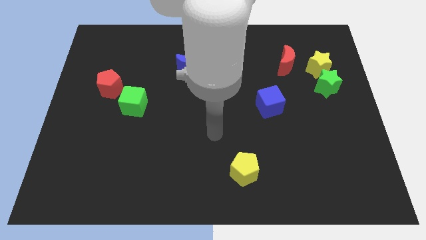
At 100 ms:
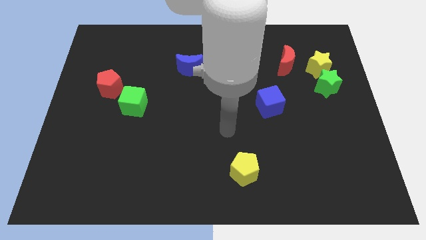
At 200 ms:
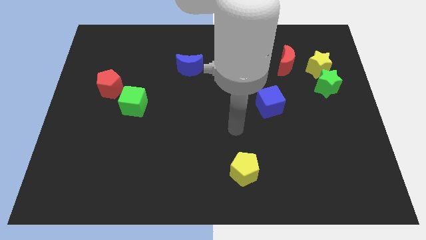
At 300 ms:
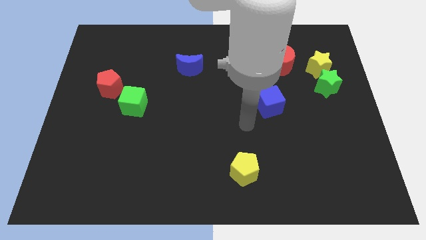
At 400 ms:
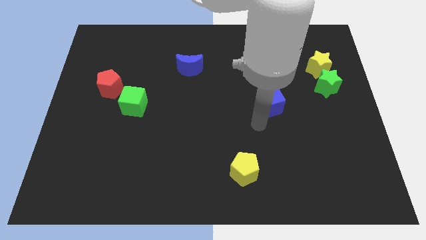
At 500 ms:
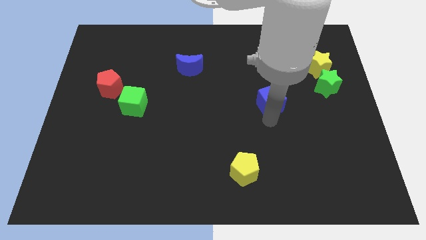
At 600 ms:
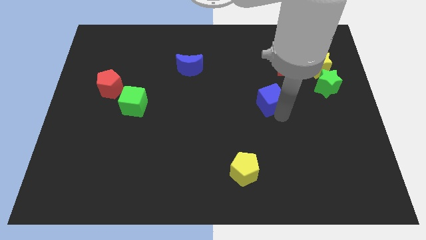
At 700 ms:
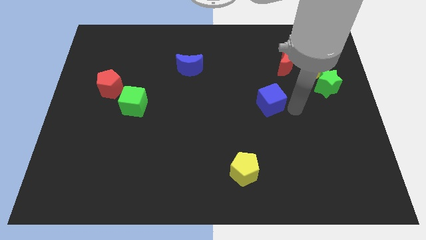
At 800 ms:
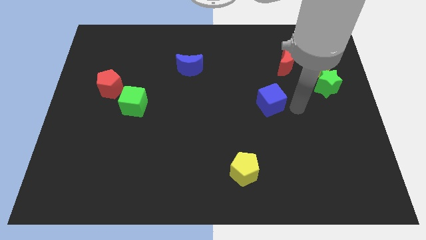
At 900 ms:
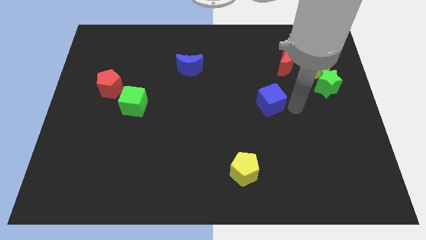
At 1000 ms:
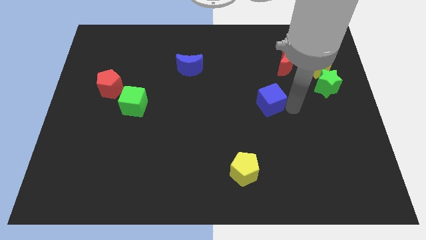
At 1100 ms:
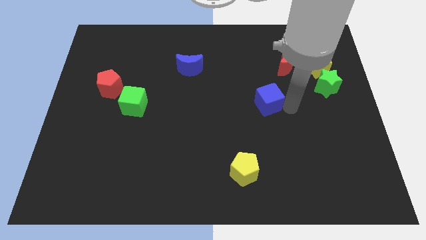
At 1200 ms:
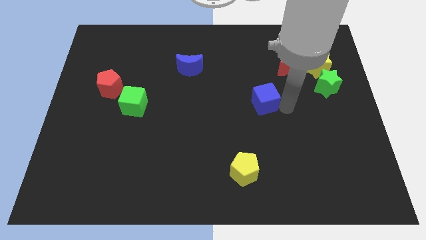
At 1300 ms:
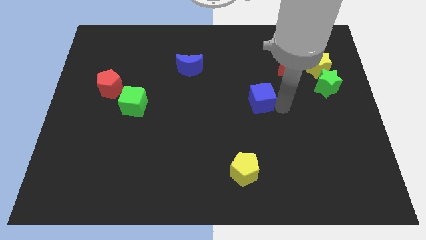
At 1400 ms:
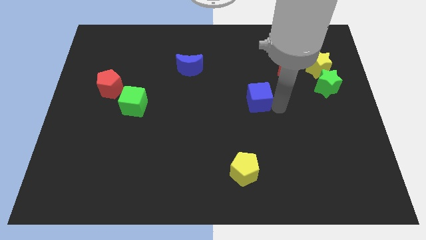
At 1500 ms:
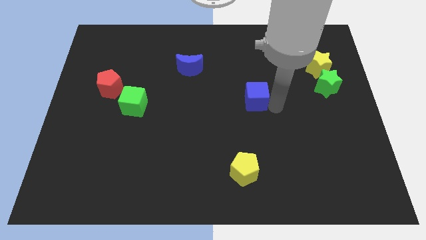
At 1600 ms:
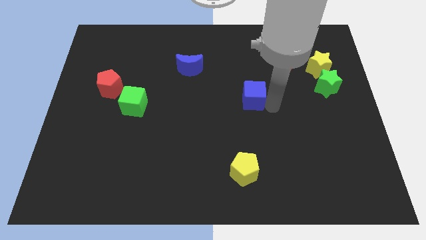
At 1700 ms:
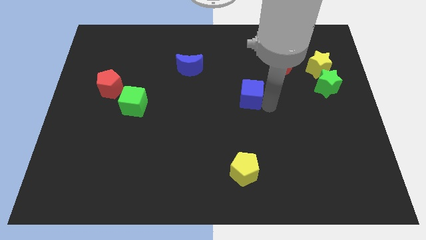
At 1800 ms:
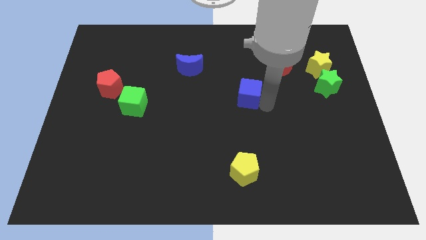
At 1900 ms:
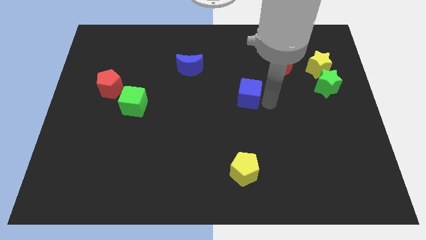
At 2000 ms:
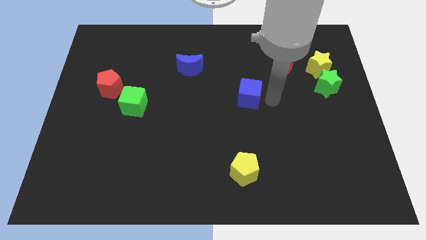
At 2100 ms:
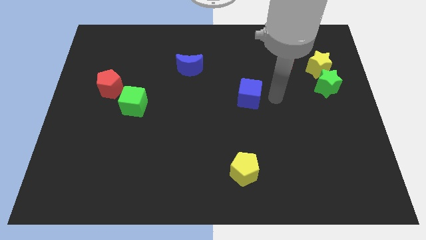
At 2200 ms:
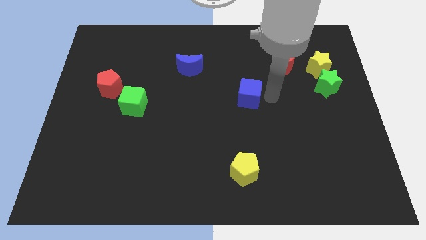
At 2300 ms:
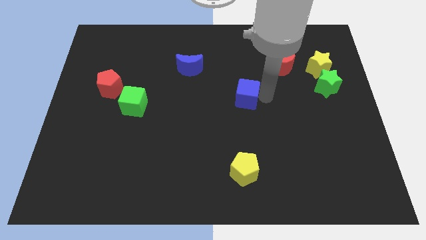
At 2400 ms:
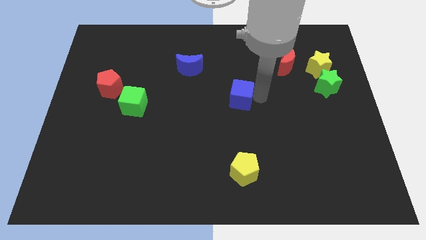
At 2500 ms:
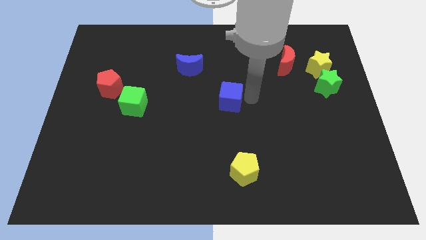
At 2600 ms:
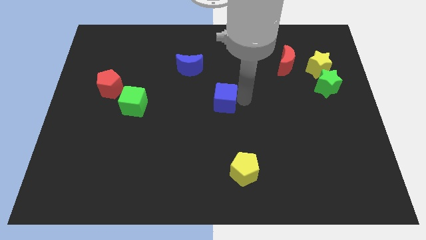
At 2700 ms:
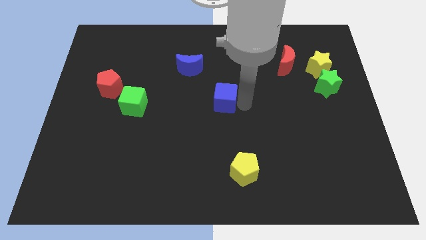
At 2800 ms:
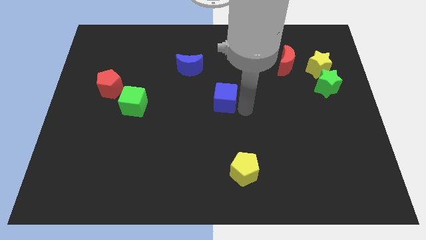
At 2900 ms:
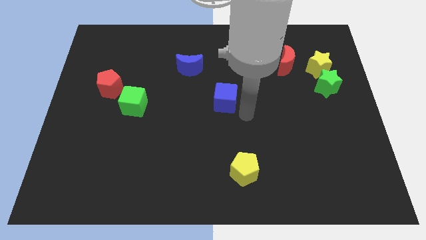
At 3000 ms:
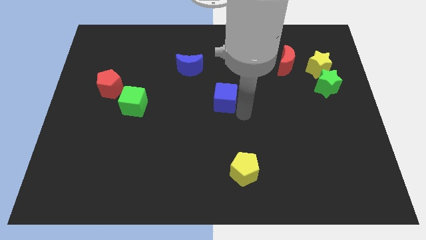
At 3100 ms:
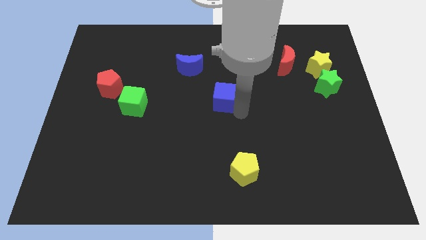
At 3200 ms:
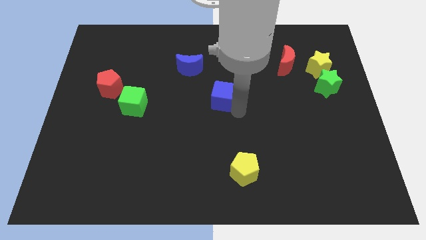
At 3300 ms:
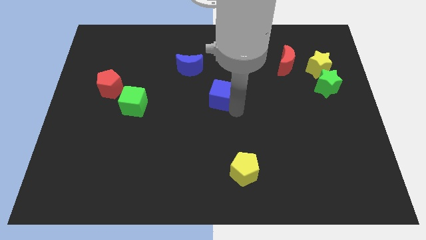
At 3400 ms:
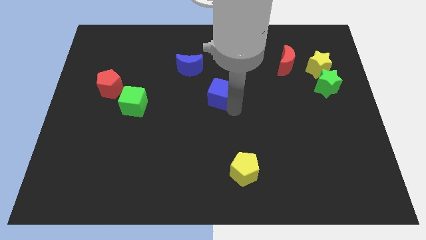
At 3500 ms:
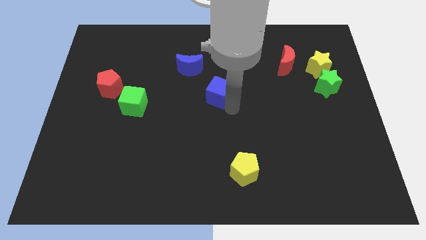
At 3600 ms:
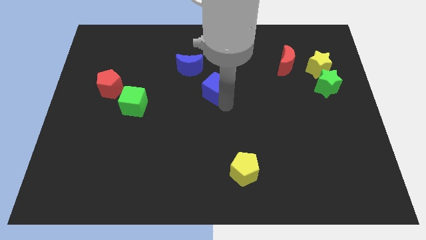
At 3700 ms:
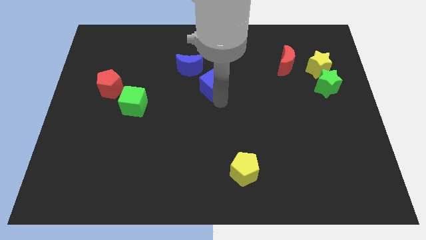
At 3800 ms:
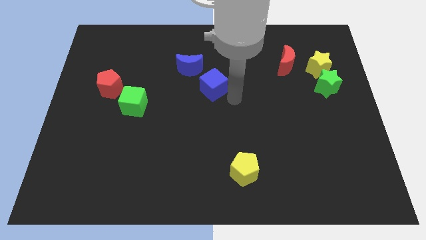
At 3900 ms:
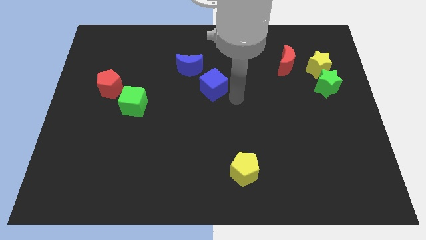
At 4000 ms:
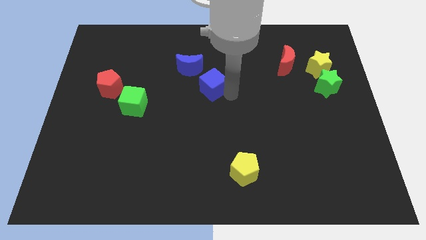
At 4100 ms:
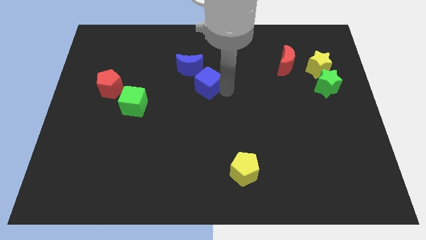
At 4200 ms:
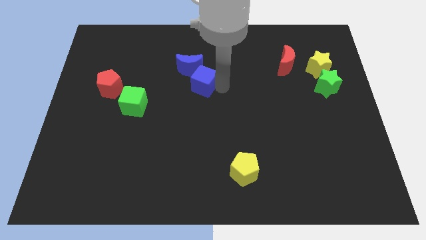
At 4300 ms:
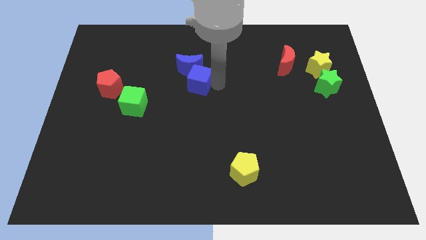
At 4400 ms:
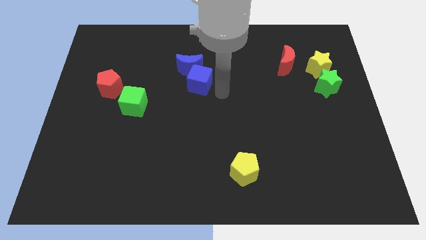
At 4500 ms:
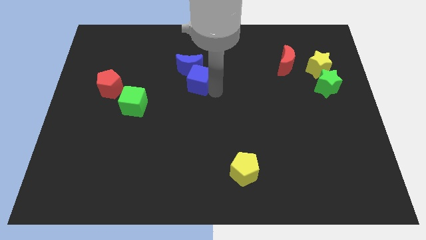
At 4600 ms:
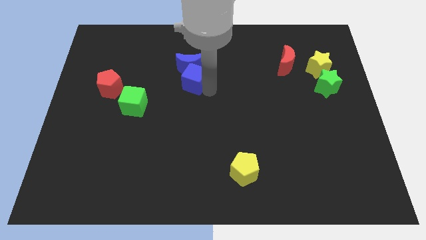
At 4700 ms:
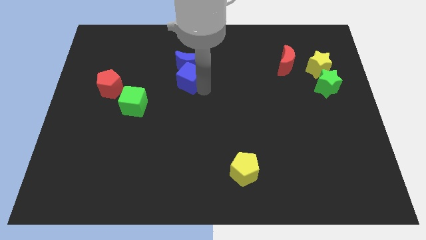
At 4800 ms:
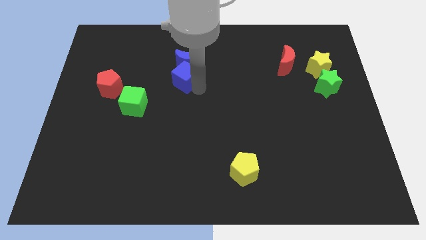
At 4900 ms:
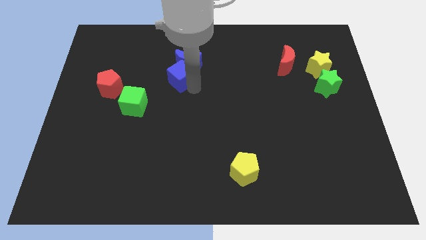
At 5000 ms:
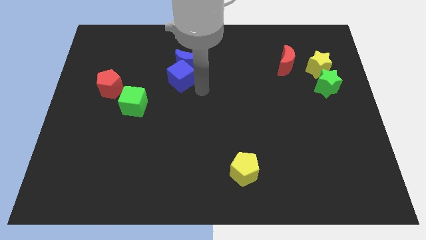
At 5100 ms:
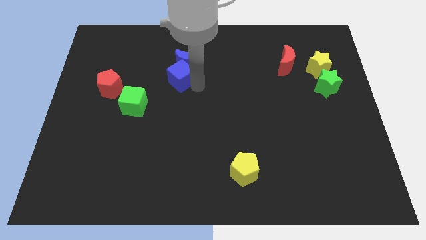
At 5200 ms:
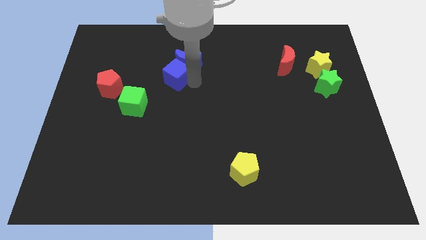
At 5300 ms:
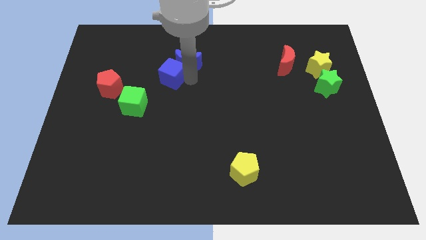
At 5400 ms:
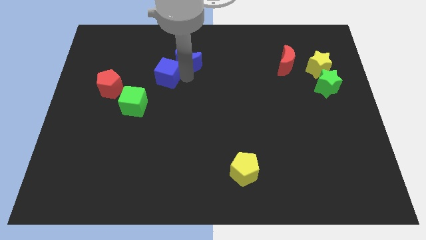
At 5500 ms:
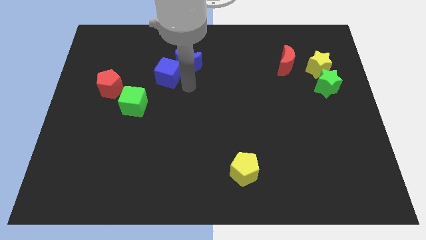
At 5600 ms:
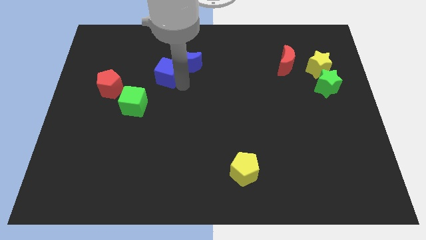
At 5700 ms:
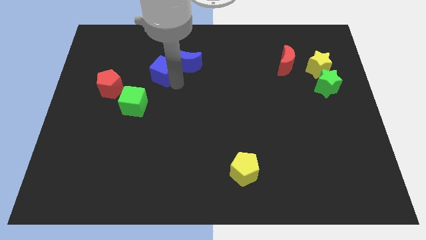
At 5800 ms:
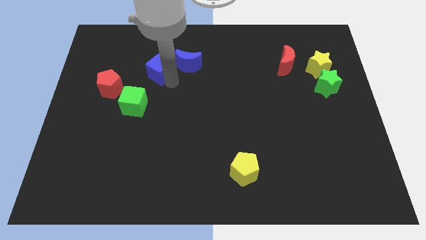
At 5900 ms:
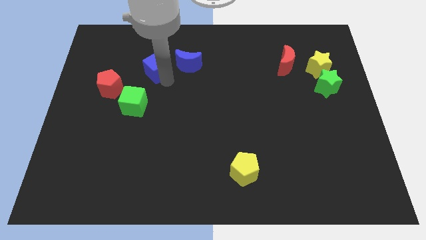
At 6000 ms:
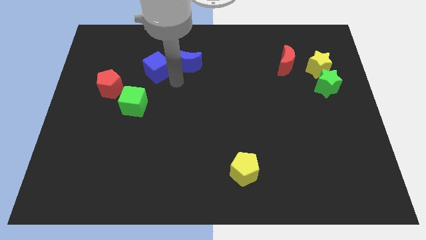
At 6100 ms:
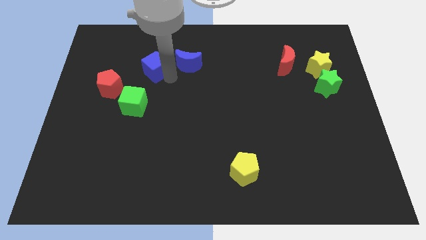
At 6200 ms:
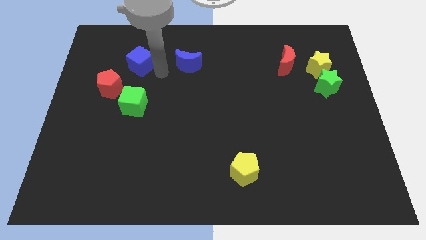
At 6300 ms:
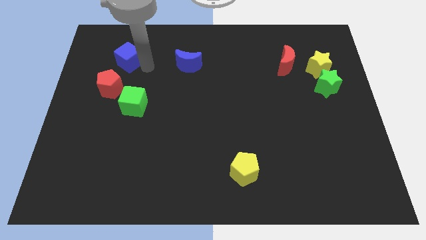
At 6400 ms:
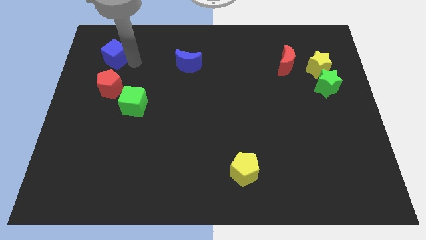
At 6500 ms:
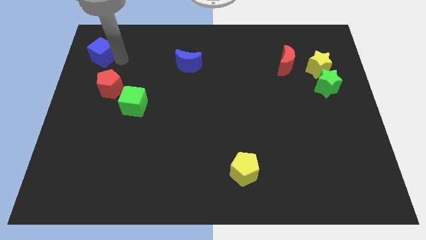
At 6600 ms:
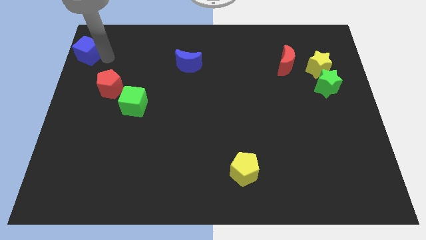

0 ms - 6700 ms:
put the blue cube to the top left
